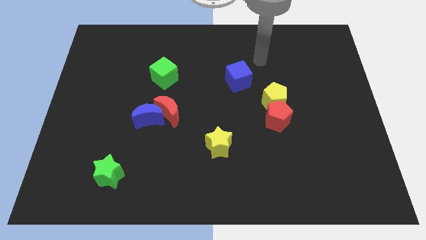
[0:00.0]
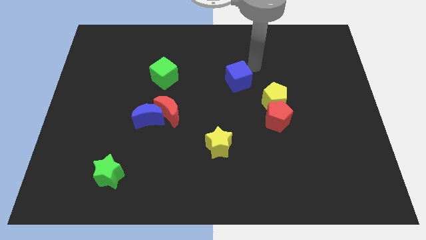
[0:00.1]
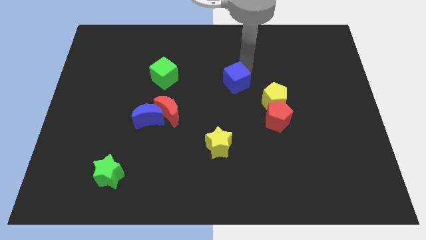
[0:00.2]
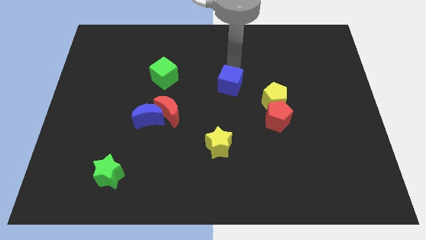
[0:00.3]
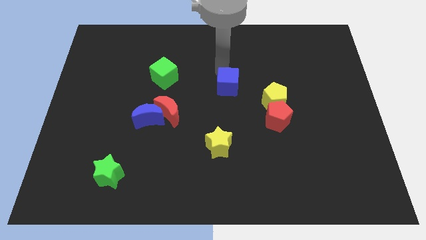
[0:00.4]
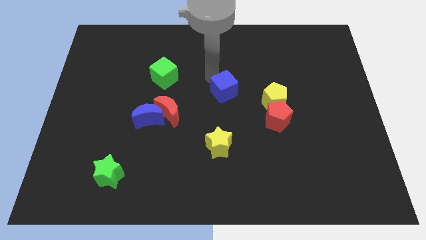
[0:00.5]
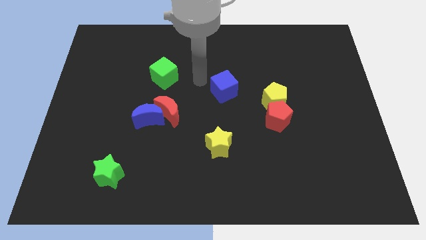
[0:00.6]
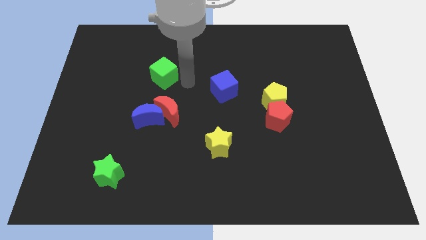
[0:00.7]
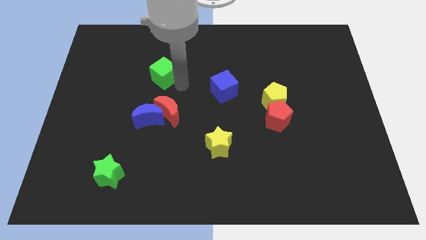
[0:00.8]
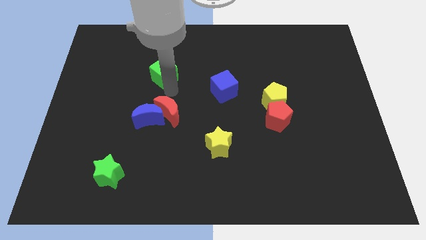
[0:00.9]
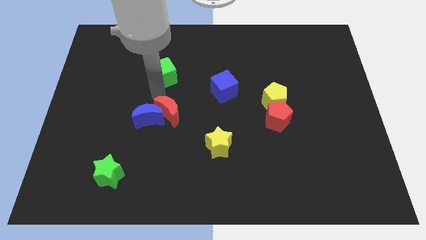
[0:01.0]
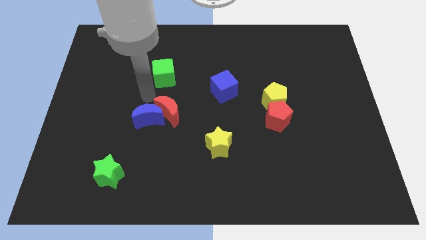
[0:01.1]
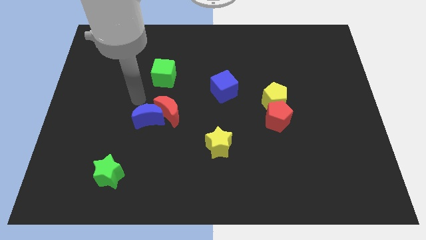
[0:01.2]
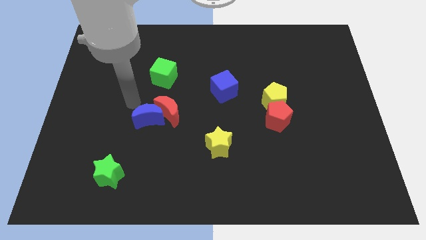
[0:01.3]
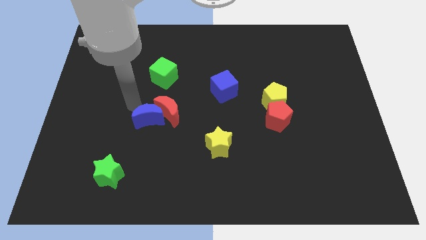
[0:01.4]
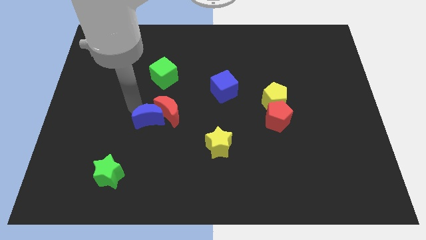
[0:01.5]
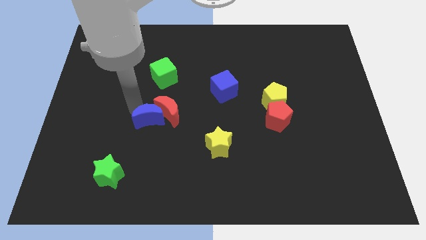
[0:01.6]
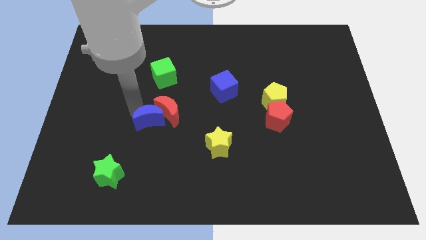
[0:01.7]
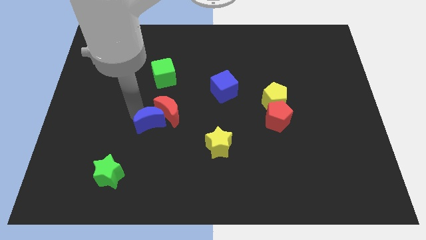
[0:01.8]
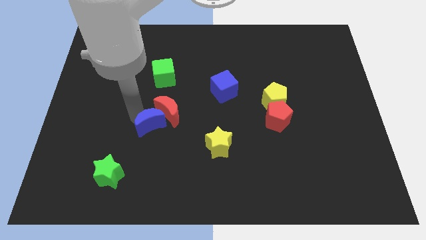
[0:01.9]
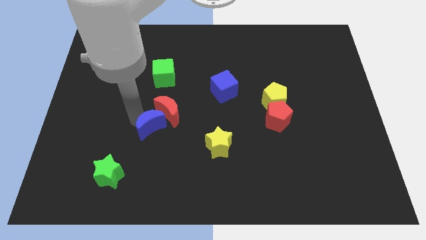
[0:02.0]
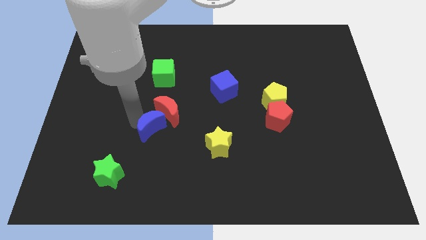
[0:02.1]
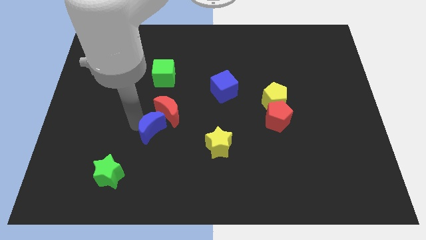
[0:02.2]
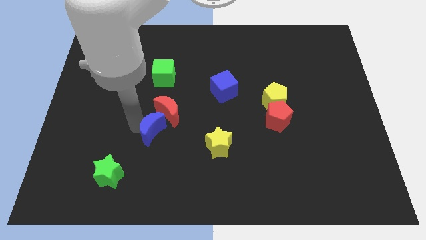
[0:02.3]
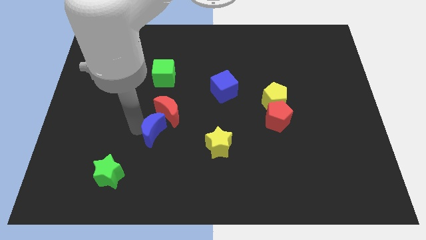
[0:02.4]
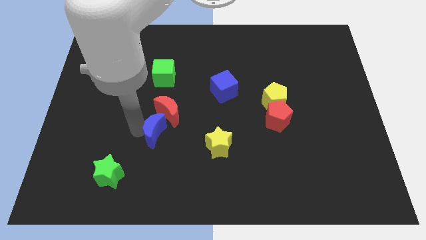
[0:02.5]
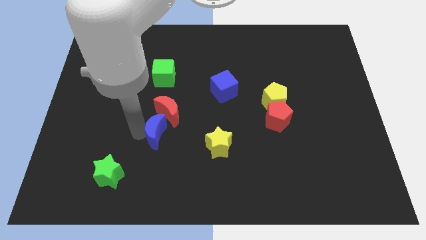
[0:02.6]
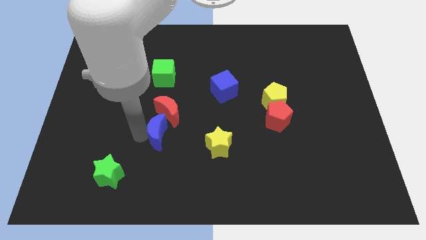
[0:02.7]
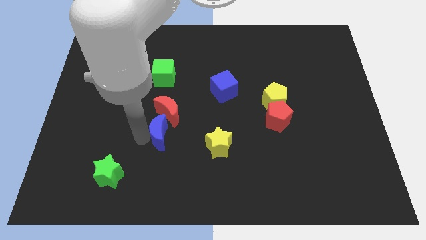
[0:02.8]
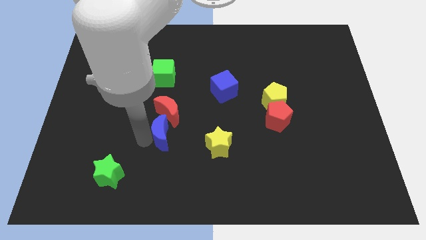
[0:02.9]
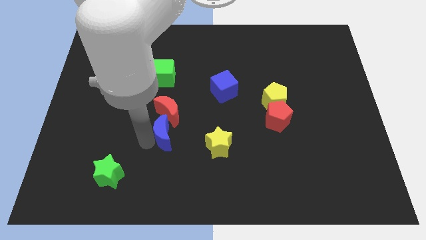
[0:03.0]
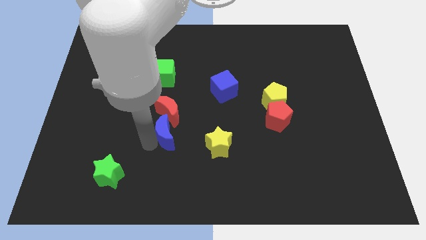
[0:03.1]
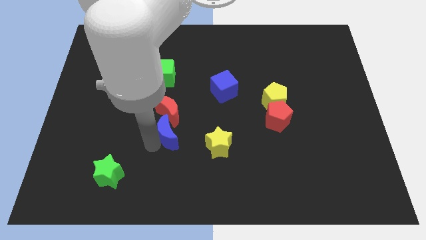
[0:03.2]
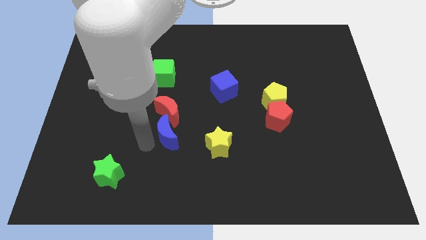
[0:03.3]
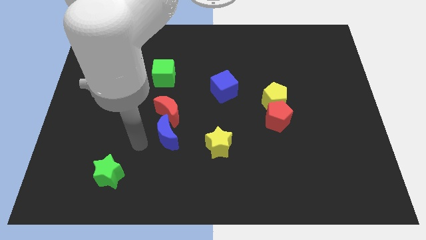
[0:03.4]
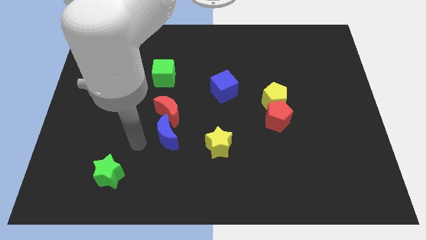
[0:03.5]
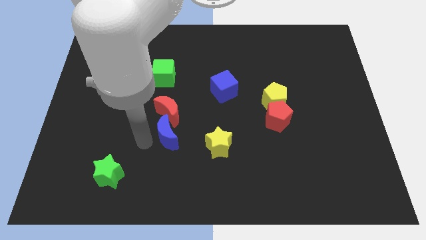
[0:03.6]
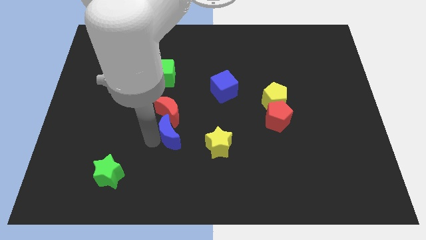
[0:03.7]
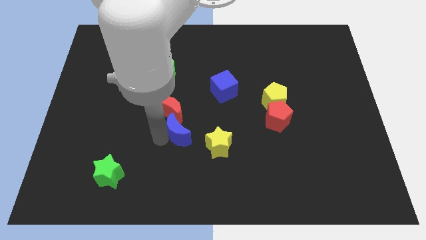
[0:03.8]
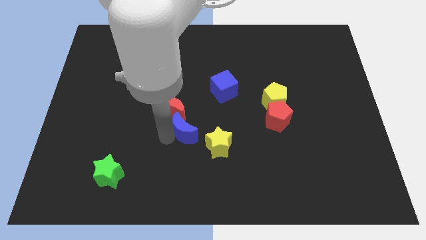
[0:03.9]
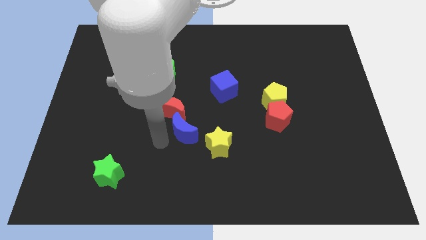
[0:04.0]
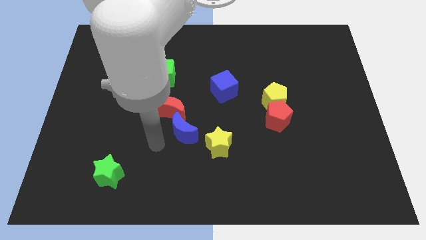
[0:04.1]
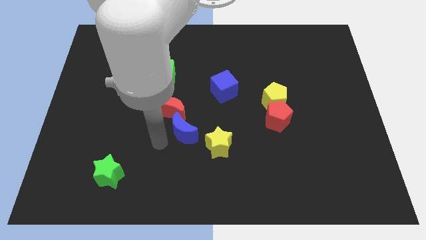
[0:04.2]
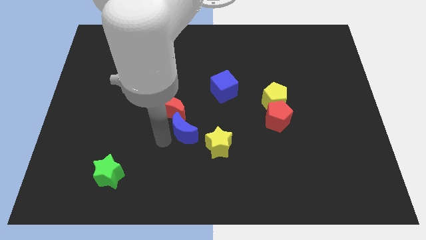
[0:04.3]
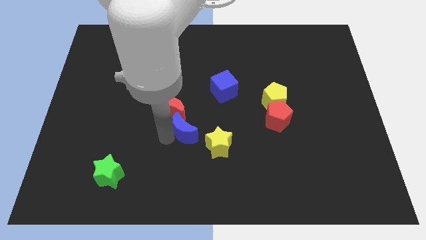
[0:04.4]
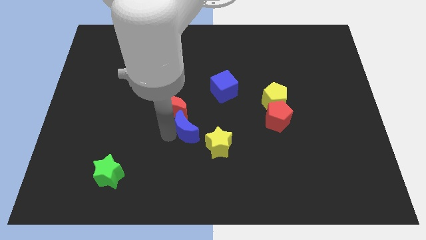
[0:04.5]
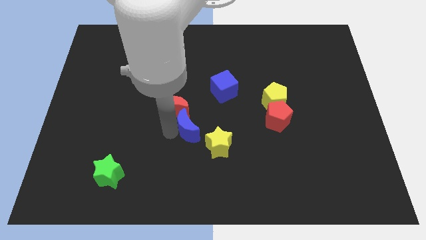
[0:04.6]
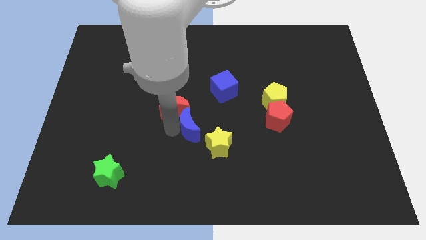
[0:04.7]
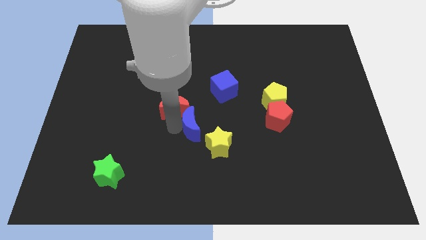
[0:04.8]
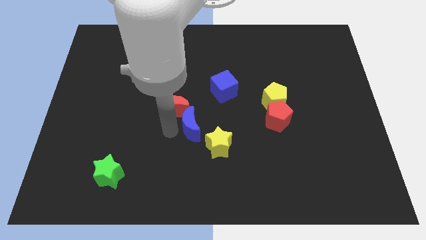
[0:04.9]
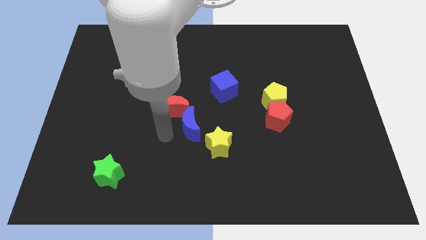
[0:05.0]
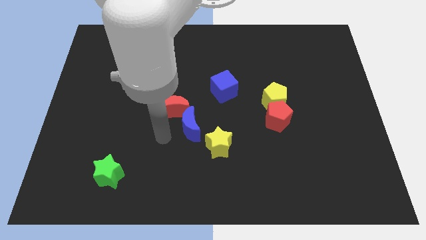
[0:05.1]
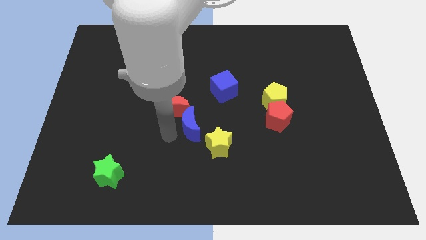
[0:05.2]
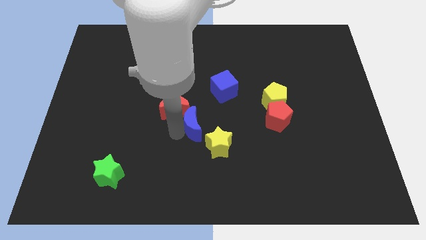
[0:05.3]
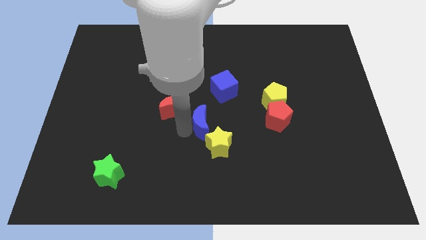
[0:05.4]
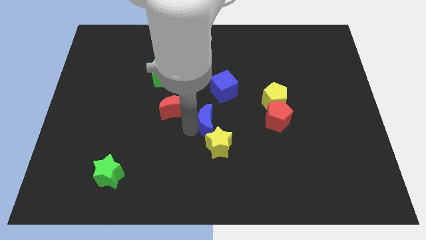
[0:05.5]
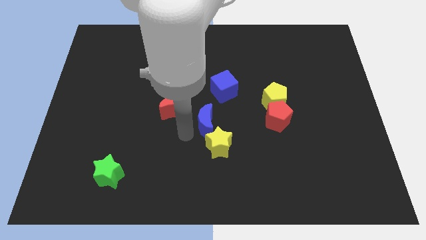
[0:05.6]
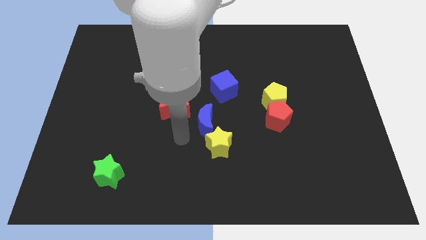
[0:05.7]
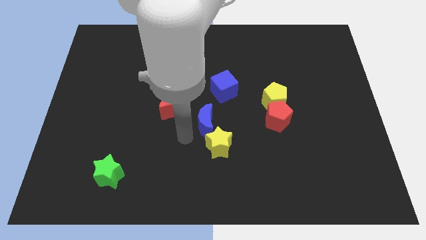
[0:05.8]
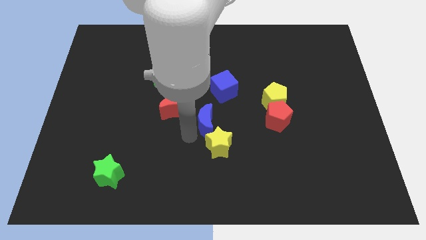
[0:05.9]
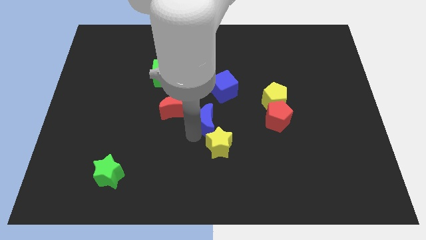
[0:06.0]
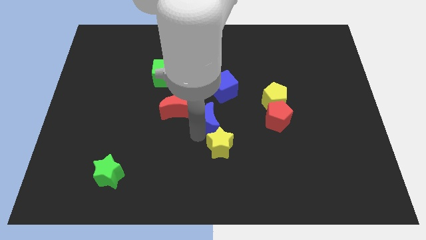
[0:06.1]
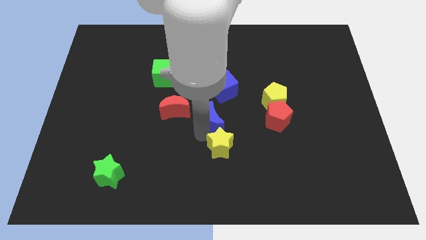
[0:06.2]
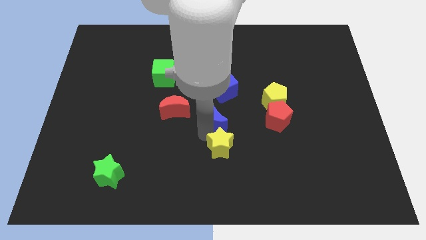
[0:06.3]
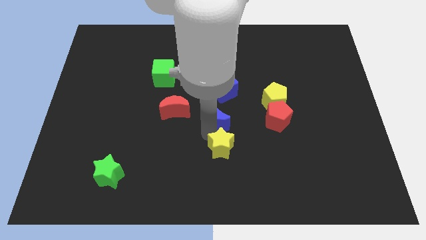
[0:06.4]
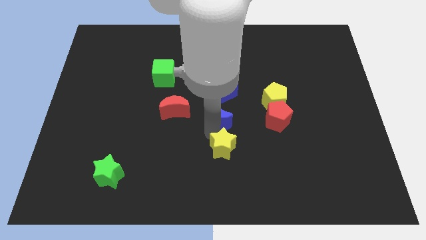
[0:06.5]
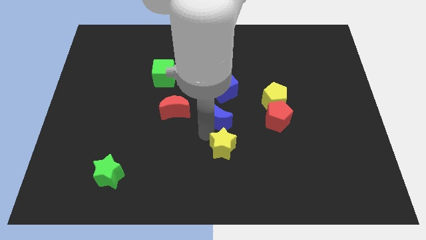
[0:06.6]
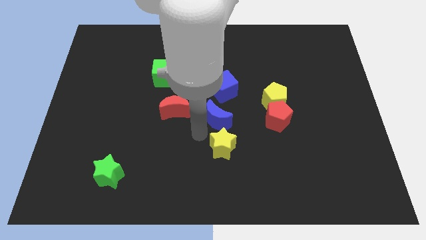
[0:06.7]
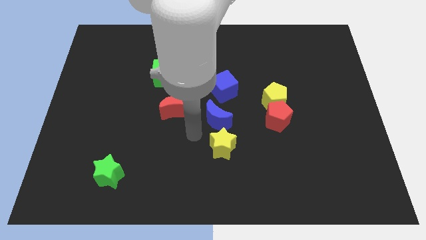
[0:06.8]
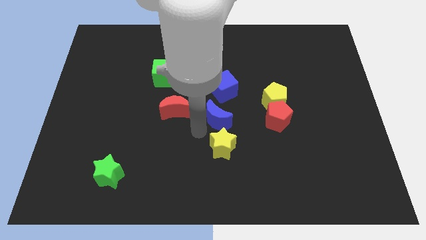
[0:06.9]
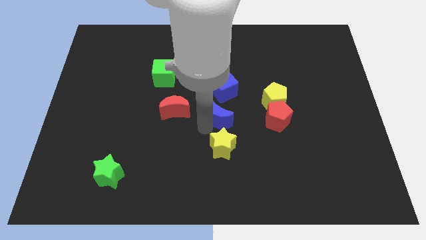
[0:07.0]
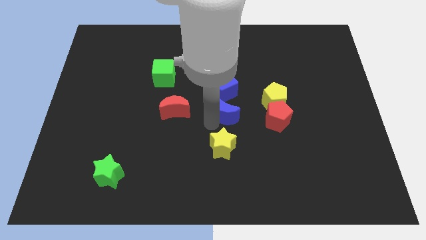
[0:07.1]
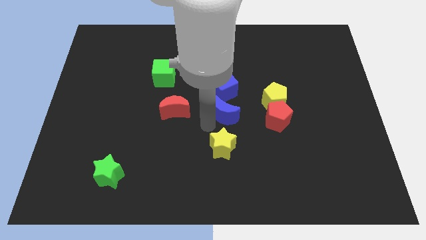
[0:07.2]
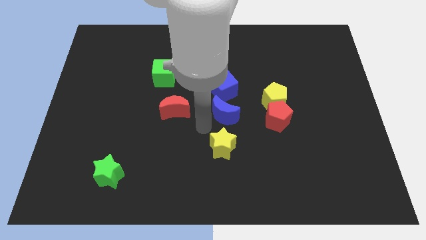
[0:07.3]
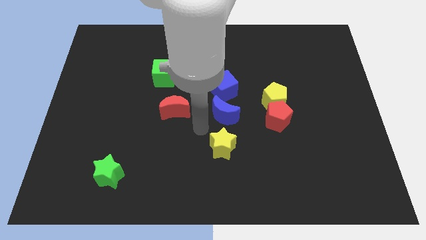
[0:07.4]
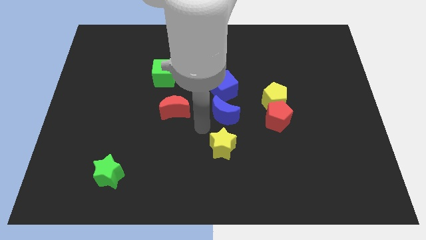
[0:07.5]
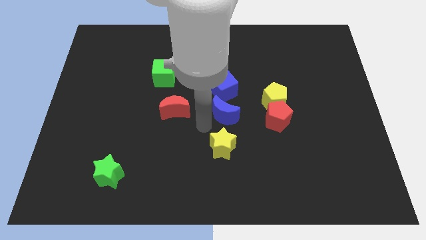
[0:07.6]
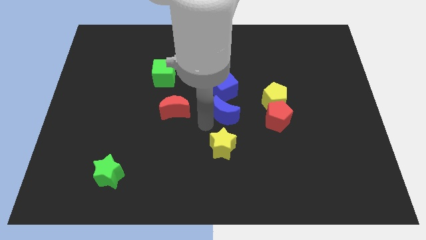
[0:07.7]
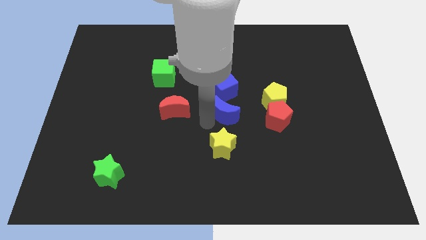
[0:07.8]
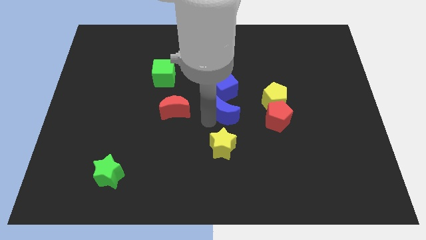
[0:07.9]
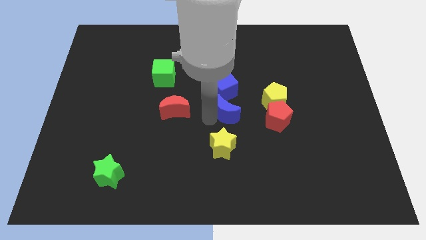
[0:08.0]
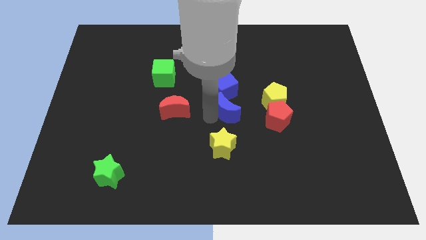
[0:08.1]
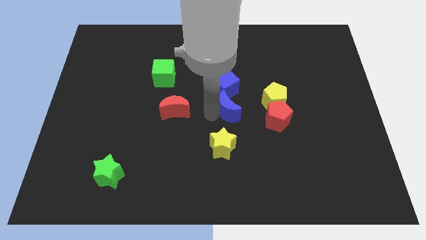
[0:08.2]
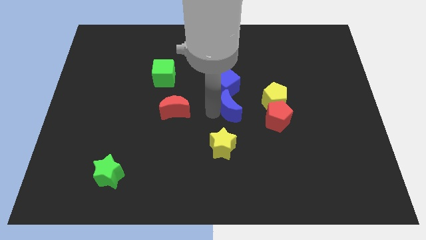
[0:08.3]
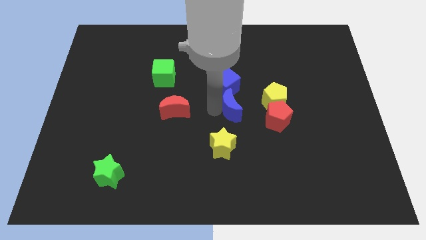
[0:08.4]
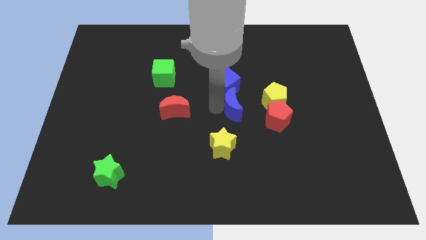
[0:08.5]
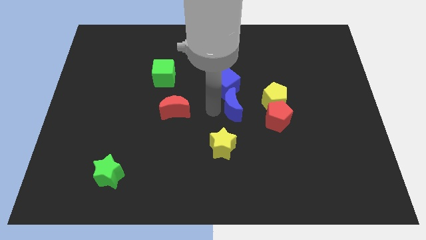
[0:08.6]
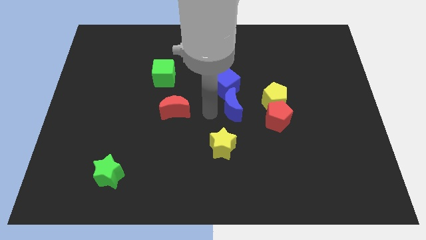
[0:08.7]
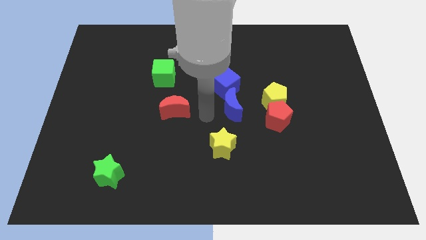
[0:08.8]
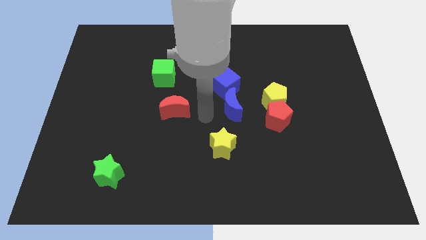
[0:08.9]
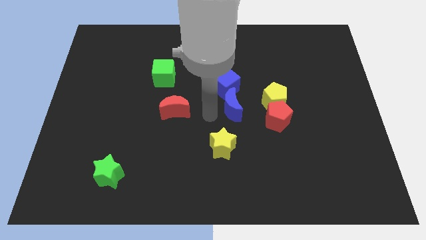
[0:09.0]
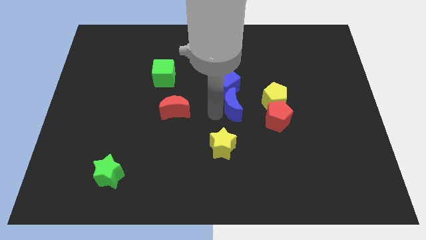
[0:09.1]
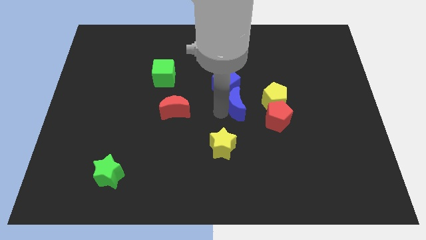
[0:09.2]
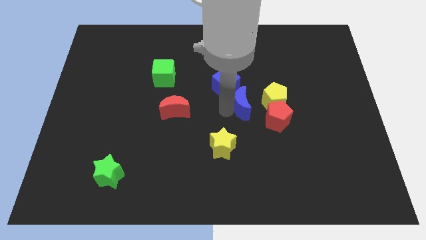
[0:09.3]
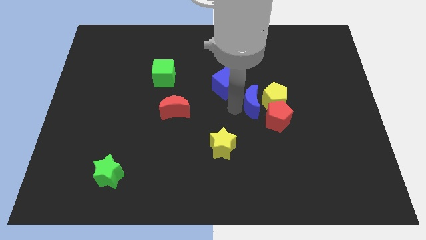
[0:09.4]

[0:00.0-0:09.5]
put the blue moon close to the yellow pentagon
